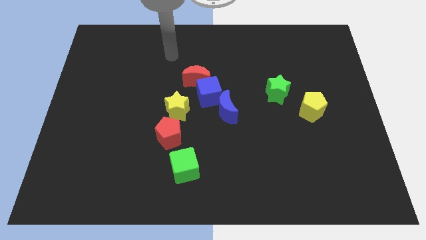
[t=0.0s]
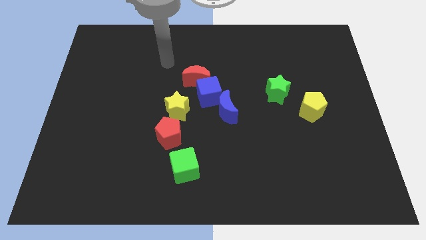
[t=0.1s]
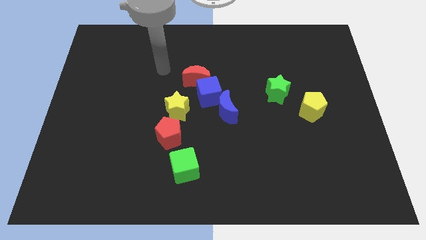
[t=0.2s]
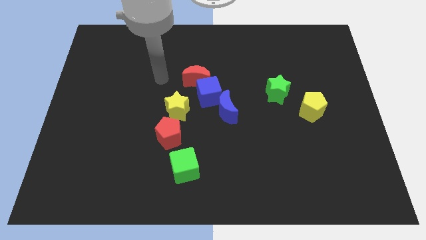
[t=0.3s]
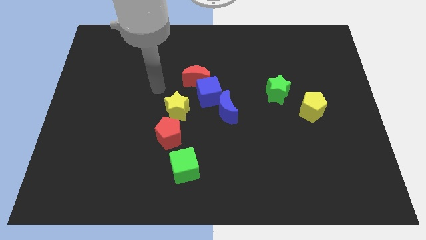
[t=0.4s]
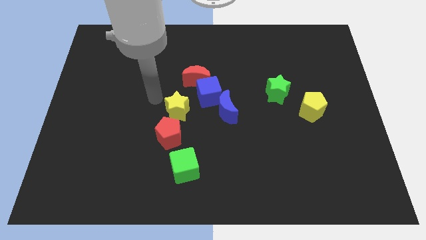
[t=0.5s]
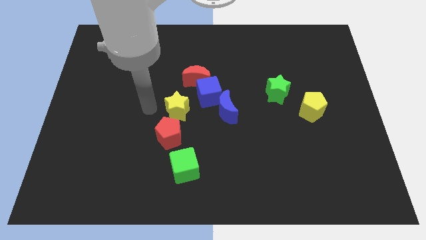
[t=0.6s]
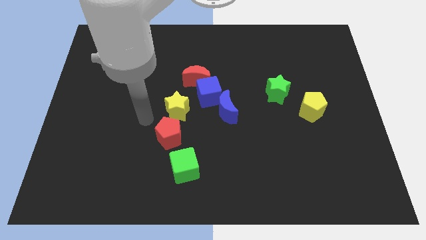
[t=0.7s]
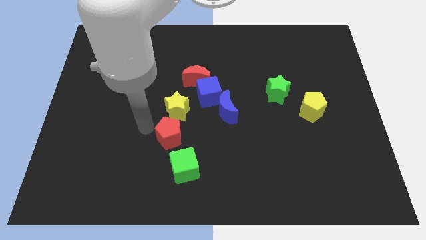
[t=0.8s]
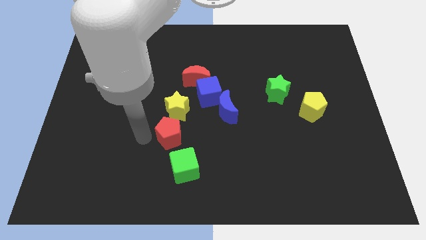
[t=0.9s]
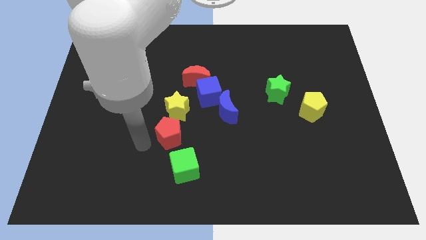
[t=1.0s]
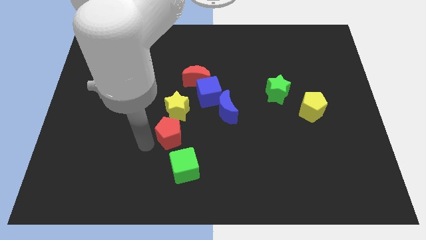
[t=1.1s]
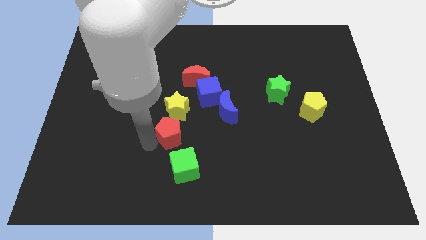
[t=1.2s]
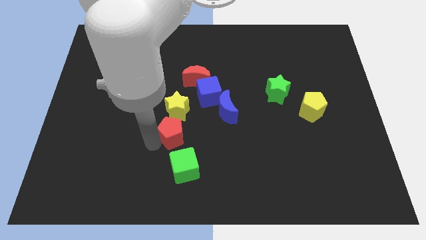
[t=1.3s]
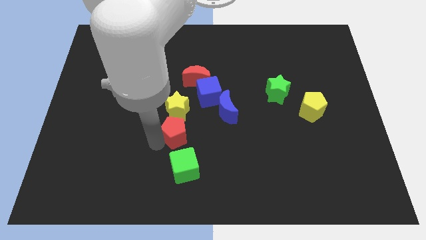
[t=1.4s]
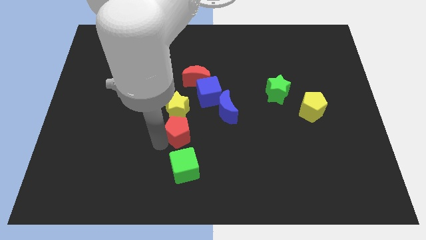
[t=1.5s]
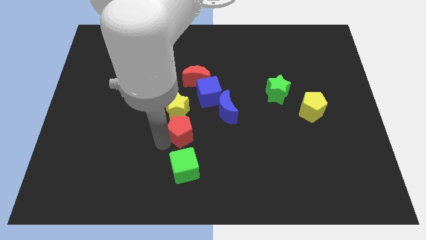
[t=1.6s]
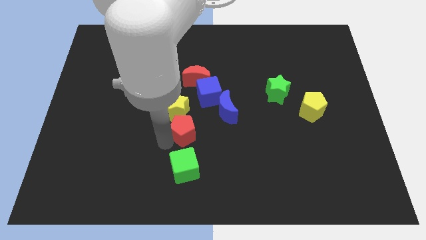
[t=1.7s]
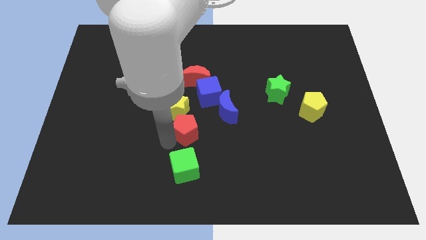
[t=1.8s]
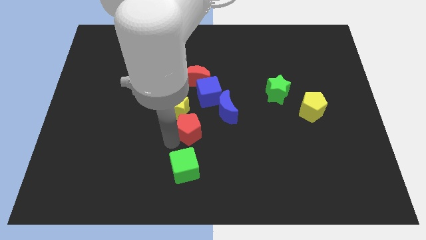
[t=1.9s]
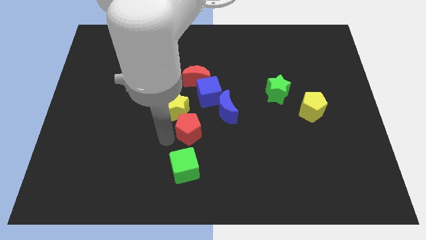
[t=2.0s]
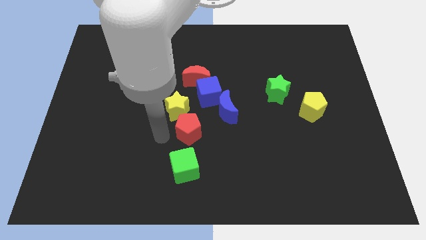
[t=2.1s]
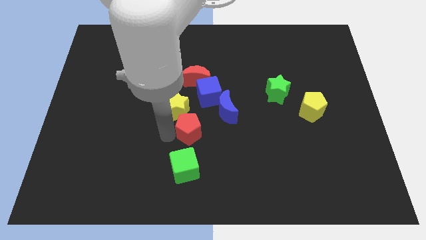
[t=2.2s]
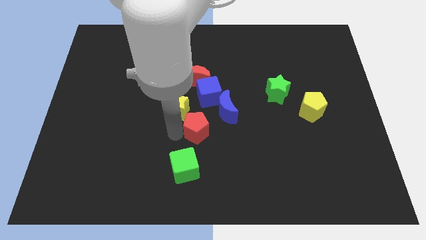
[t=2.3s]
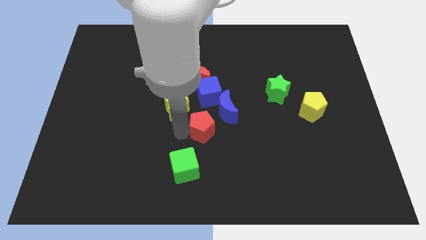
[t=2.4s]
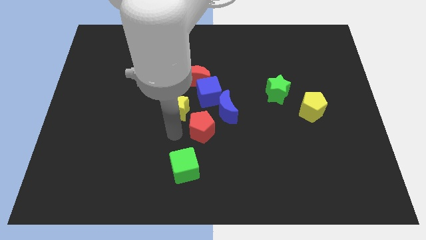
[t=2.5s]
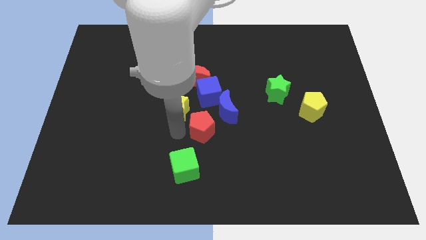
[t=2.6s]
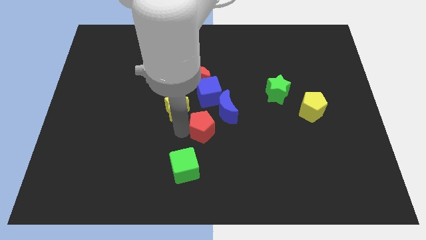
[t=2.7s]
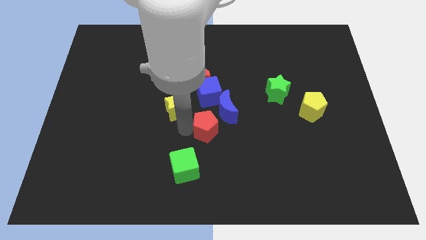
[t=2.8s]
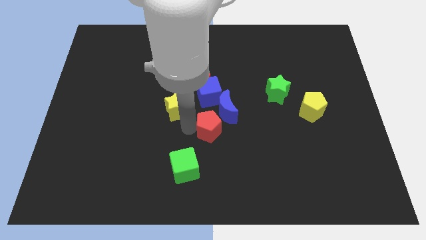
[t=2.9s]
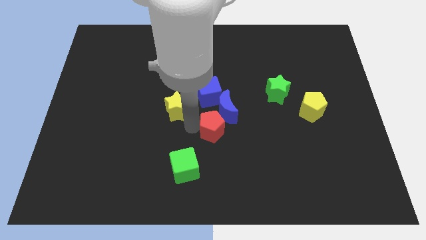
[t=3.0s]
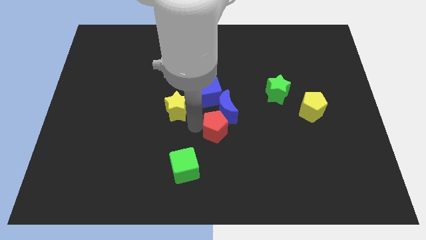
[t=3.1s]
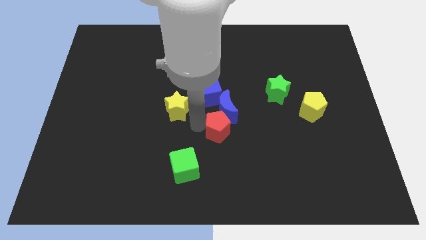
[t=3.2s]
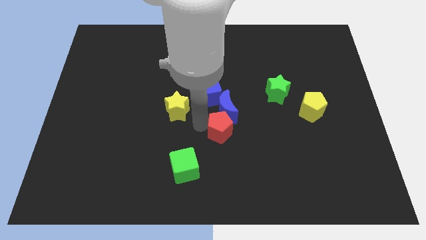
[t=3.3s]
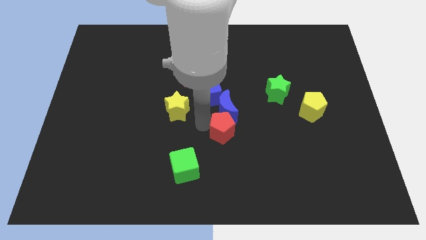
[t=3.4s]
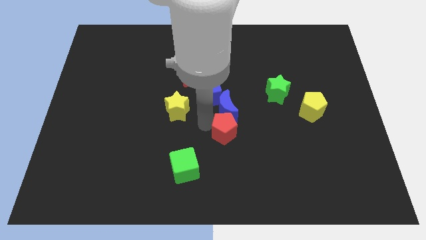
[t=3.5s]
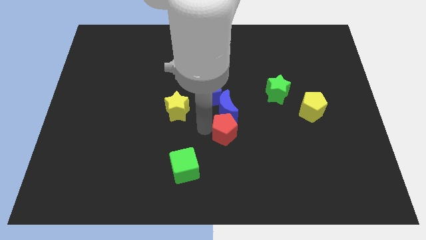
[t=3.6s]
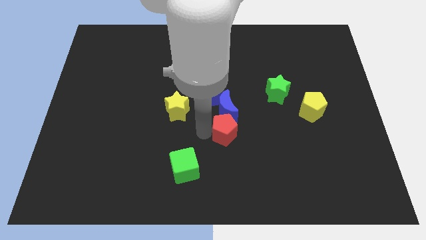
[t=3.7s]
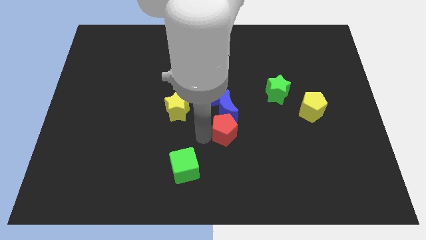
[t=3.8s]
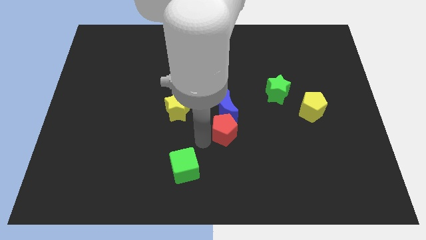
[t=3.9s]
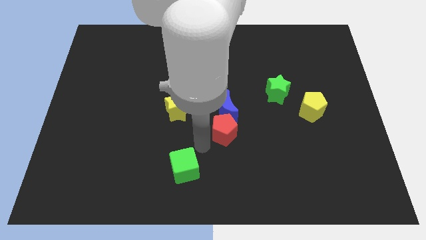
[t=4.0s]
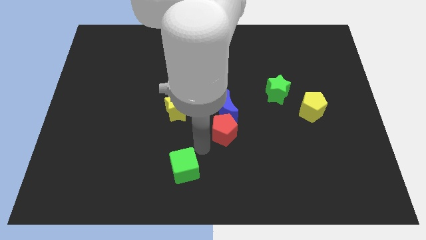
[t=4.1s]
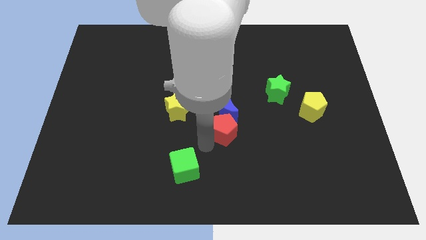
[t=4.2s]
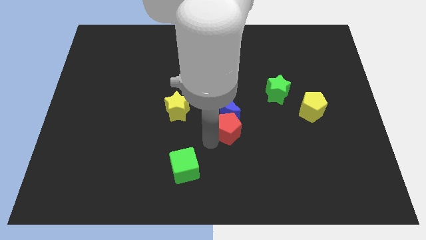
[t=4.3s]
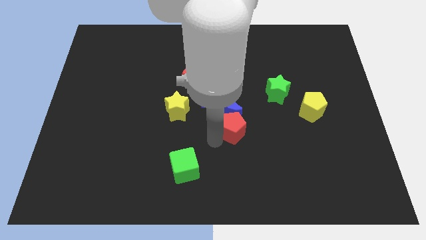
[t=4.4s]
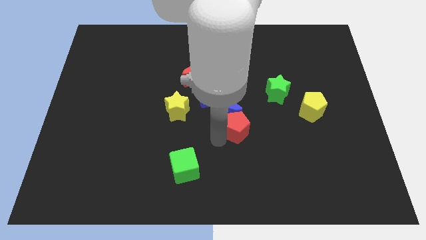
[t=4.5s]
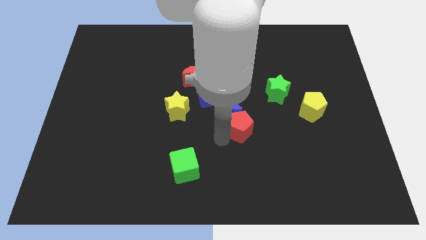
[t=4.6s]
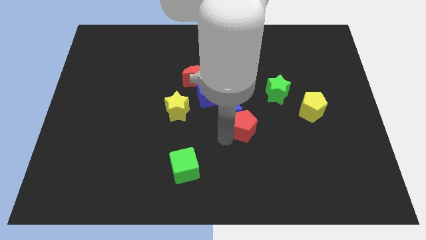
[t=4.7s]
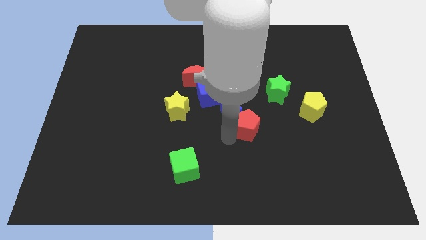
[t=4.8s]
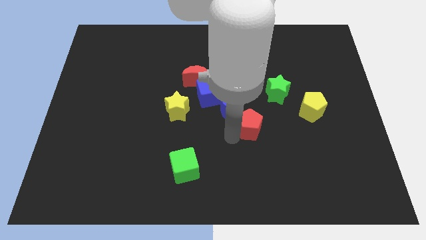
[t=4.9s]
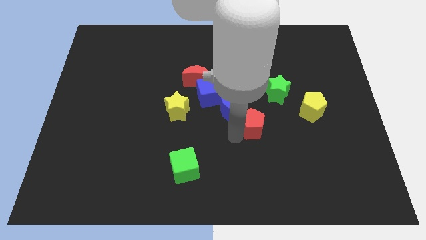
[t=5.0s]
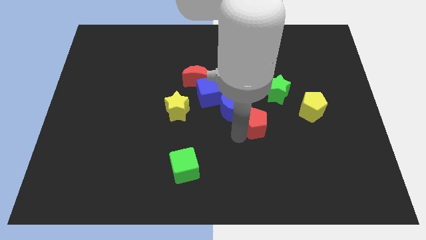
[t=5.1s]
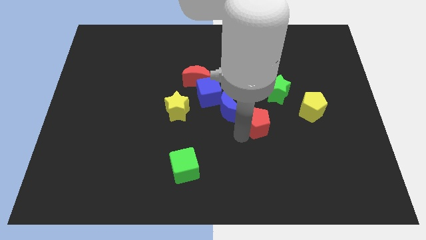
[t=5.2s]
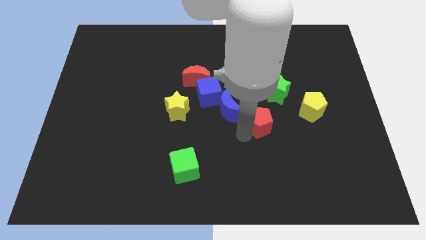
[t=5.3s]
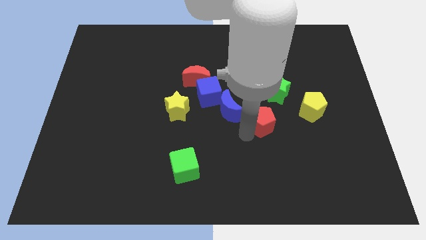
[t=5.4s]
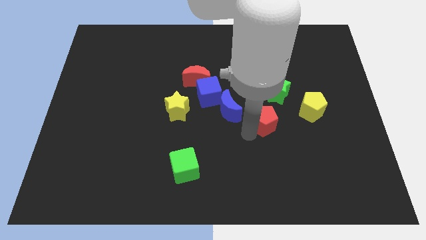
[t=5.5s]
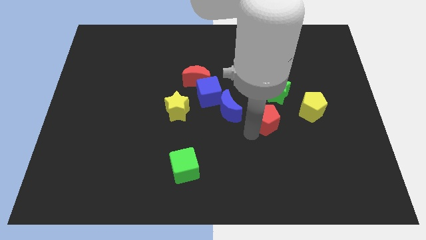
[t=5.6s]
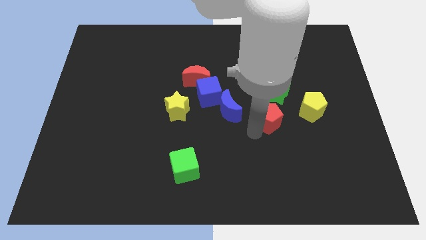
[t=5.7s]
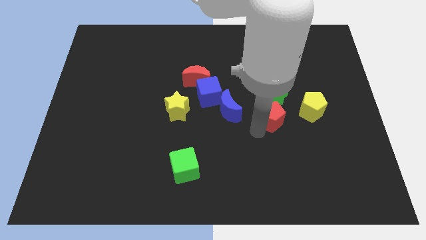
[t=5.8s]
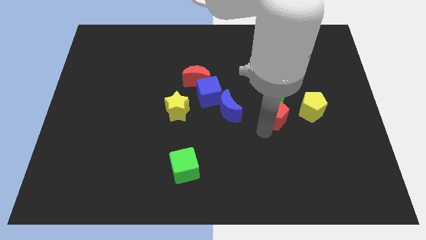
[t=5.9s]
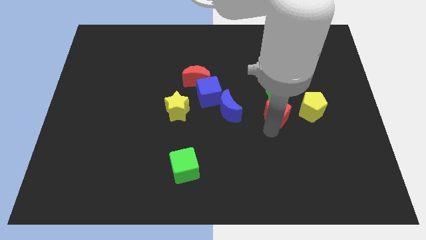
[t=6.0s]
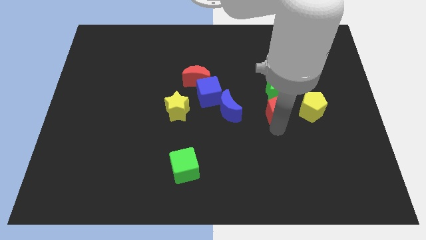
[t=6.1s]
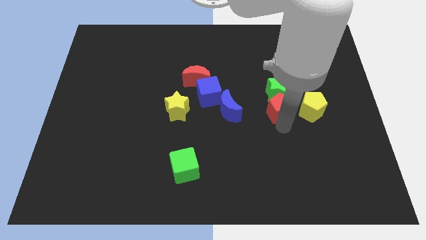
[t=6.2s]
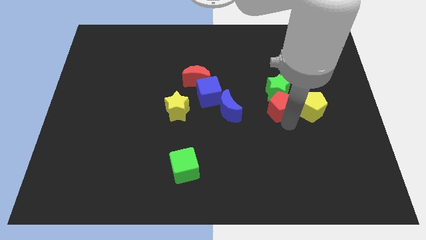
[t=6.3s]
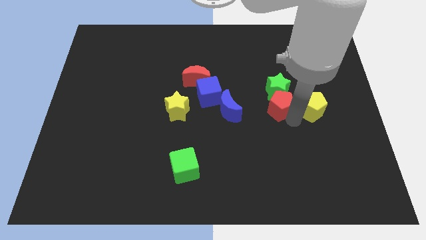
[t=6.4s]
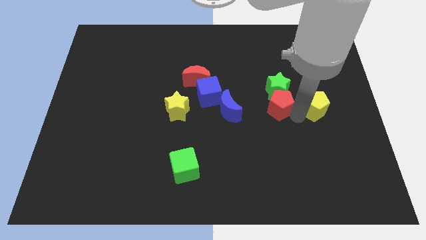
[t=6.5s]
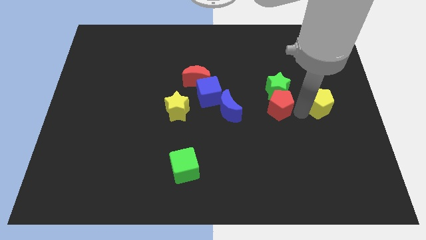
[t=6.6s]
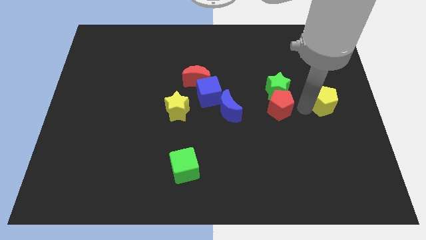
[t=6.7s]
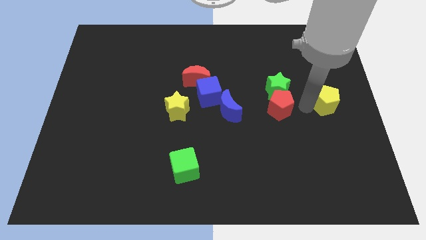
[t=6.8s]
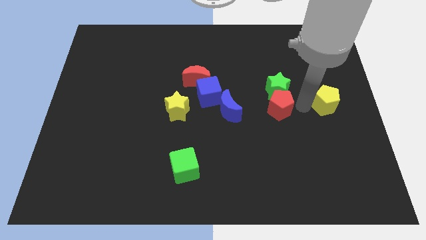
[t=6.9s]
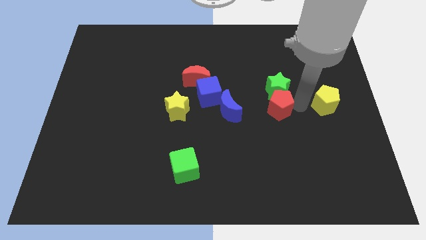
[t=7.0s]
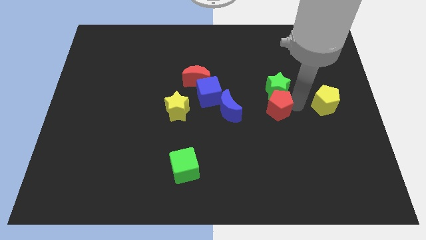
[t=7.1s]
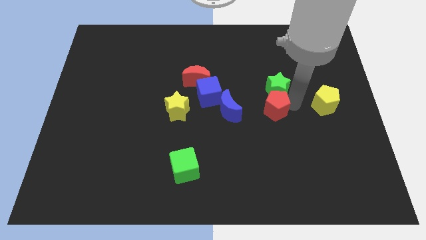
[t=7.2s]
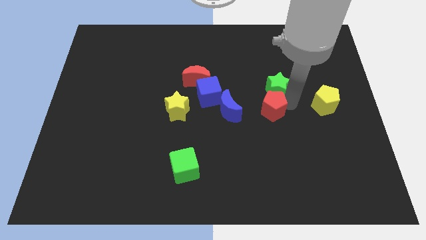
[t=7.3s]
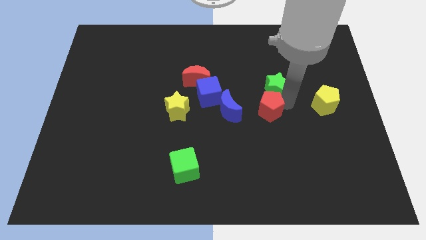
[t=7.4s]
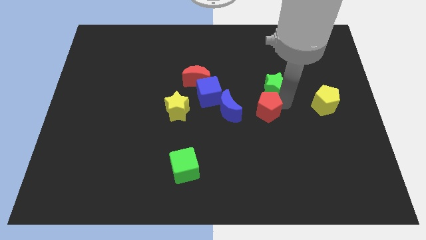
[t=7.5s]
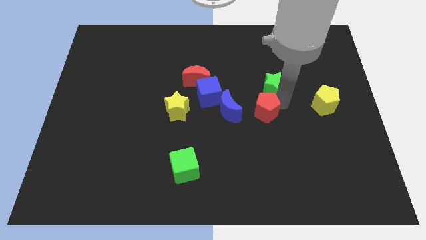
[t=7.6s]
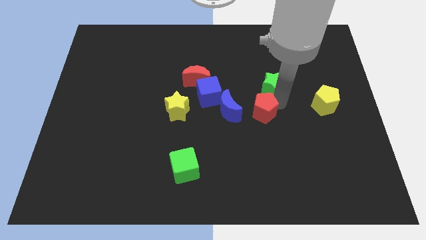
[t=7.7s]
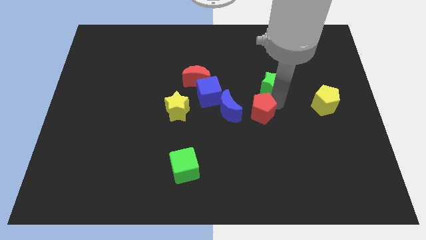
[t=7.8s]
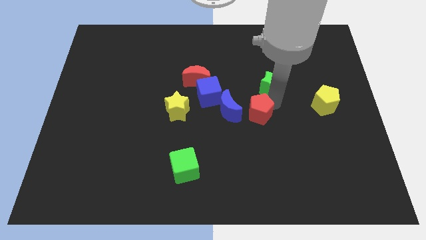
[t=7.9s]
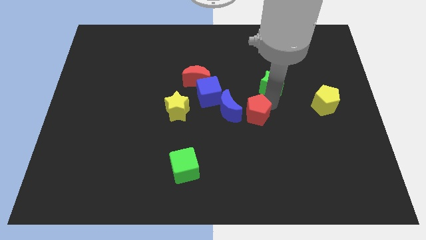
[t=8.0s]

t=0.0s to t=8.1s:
put the red pentagon diagonally up and to the right of the blue moon
